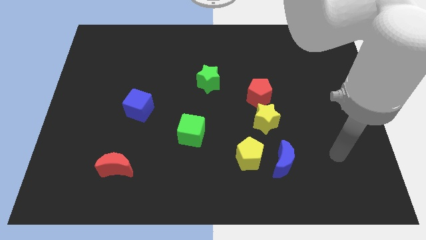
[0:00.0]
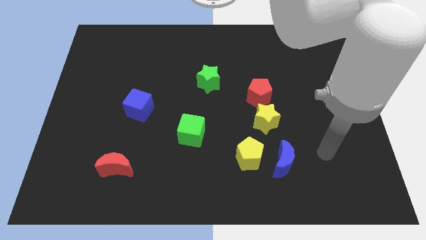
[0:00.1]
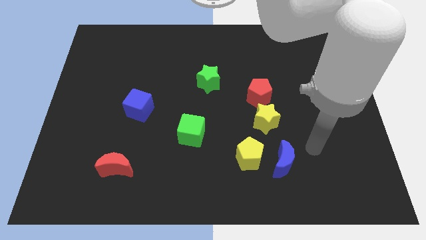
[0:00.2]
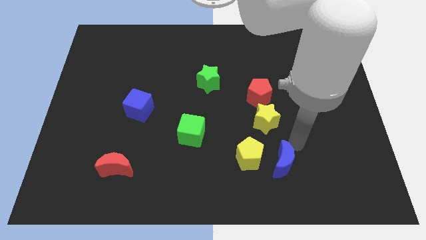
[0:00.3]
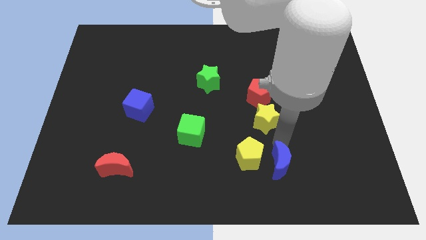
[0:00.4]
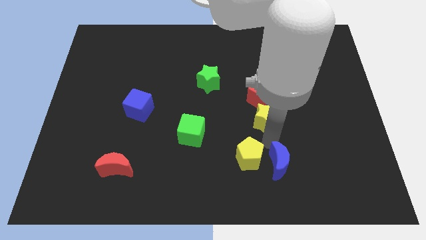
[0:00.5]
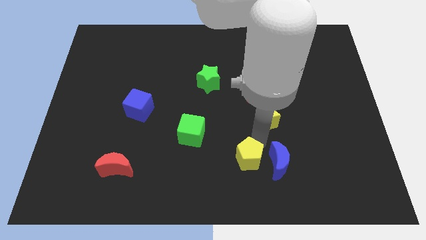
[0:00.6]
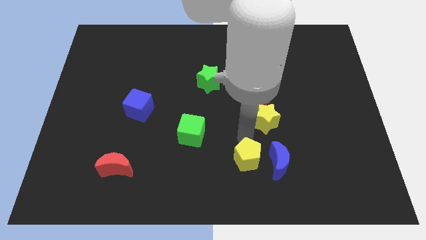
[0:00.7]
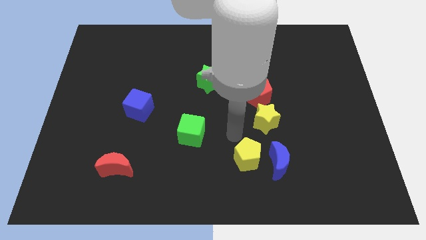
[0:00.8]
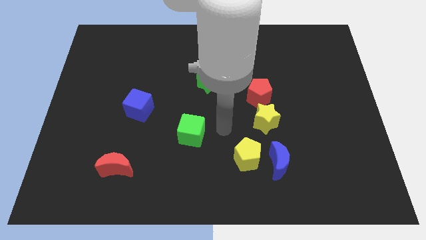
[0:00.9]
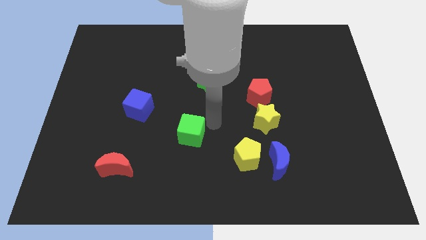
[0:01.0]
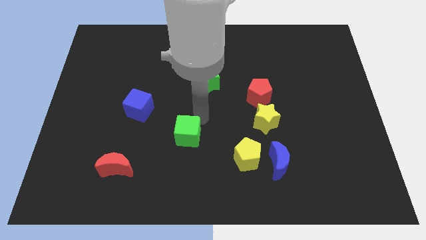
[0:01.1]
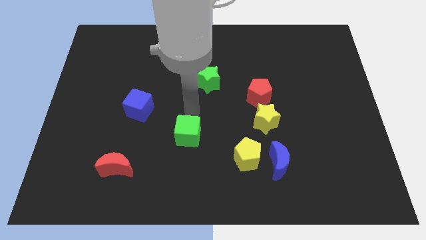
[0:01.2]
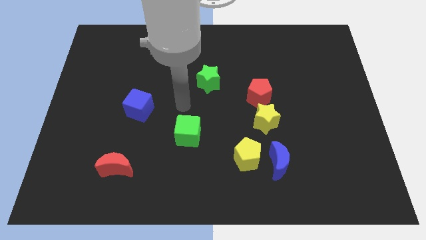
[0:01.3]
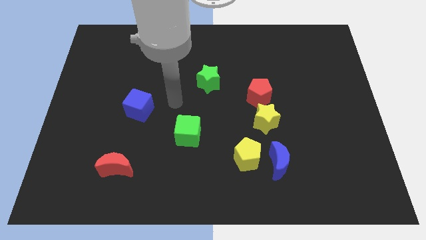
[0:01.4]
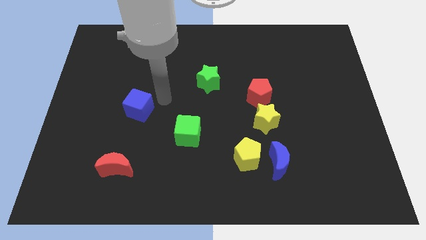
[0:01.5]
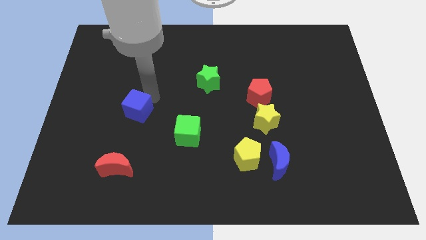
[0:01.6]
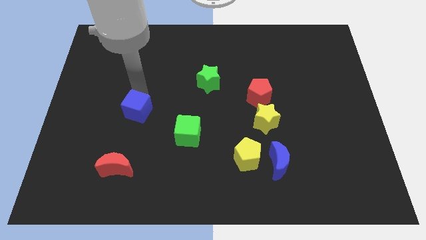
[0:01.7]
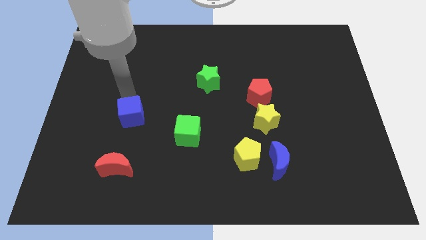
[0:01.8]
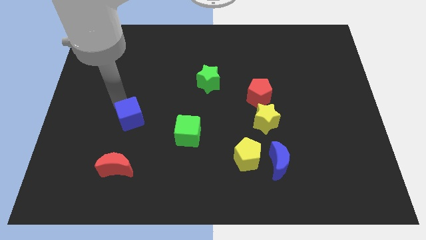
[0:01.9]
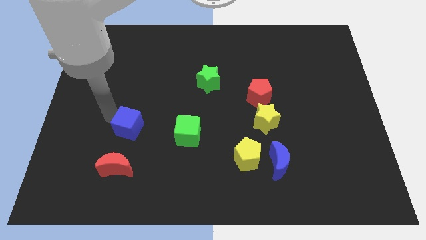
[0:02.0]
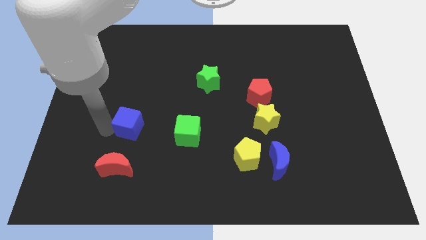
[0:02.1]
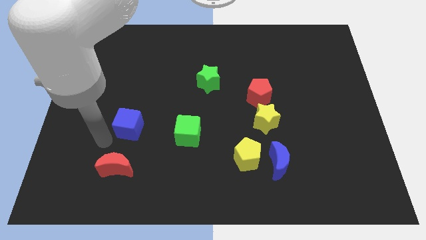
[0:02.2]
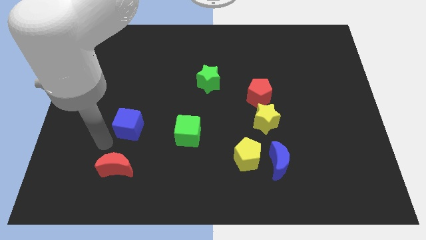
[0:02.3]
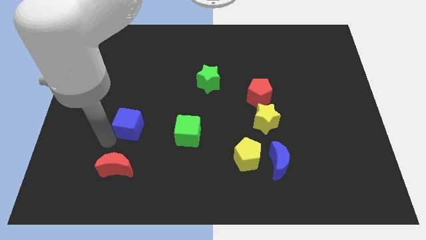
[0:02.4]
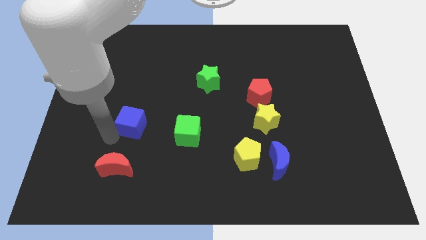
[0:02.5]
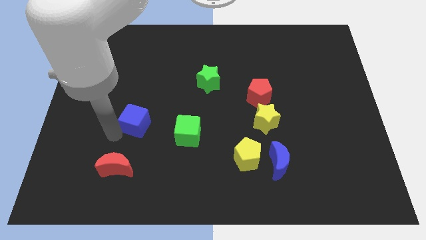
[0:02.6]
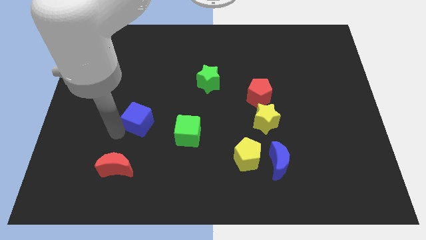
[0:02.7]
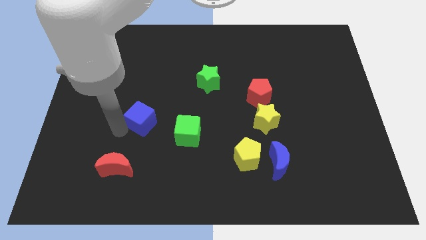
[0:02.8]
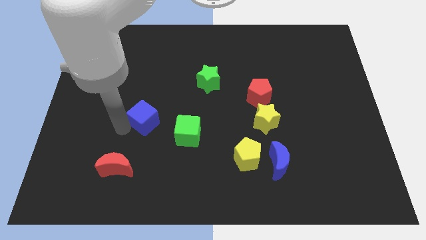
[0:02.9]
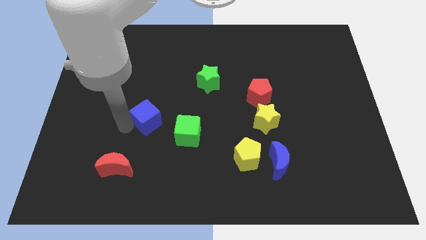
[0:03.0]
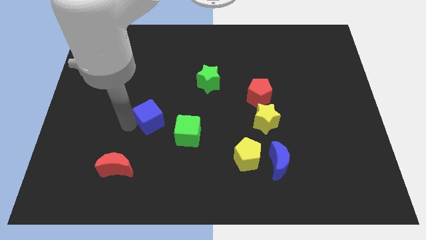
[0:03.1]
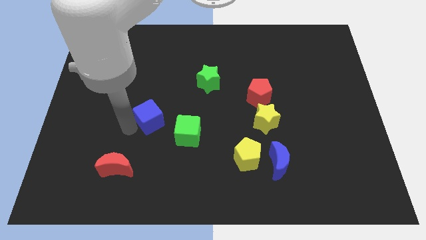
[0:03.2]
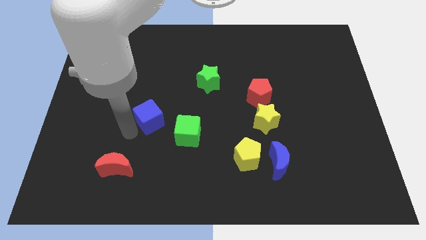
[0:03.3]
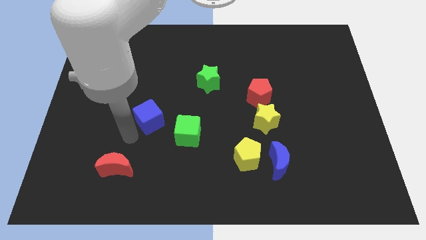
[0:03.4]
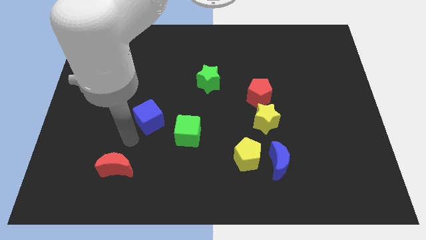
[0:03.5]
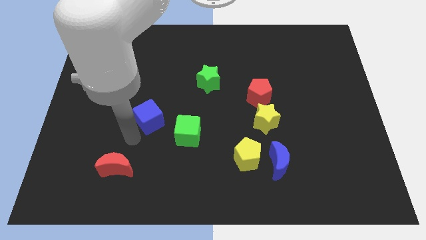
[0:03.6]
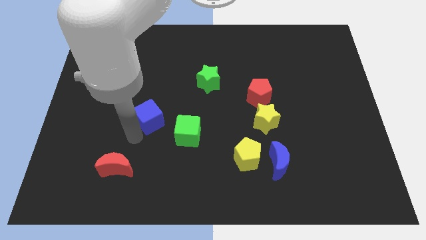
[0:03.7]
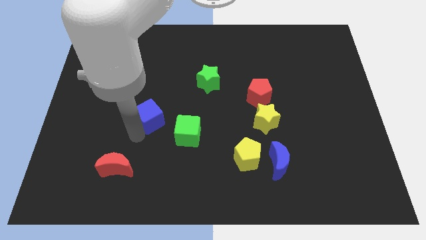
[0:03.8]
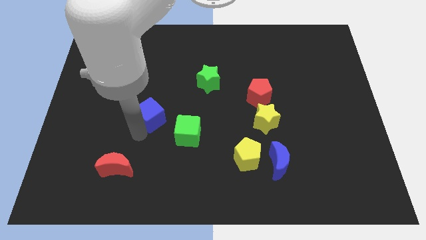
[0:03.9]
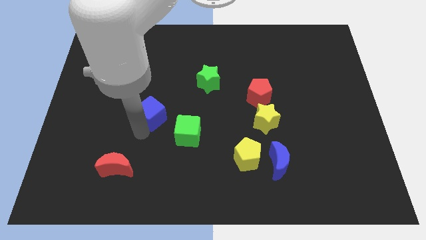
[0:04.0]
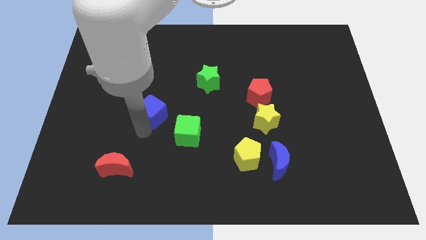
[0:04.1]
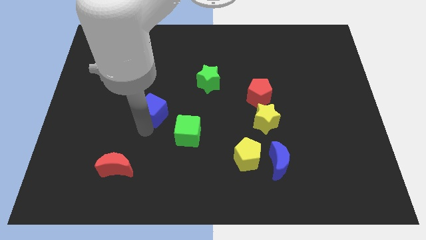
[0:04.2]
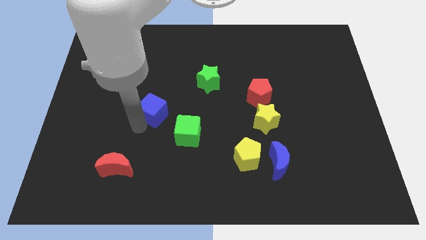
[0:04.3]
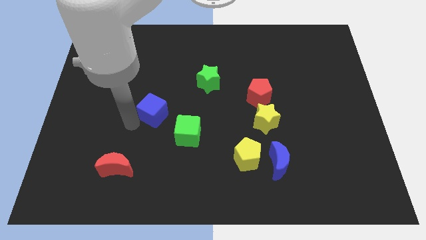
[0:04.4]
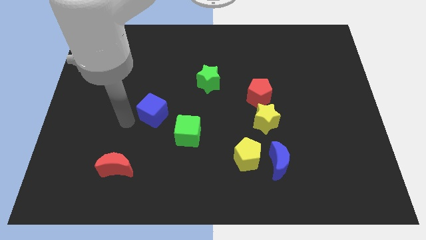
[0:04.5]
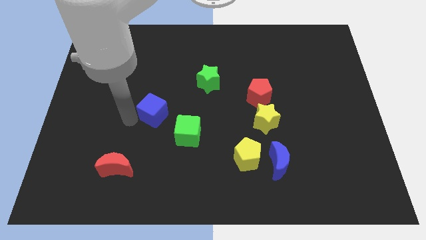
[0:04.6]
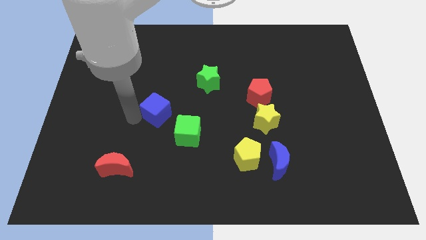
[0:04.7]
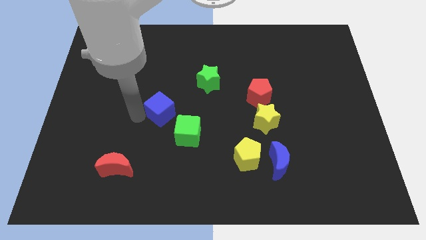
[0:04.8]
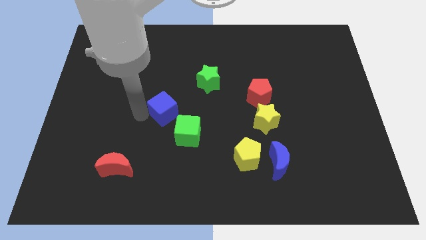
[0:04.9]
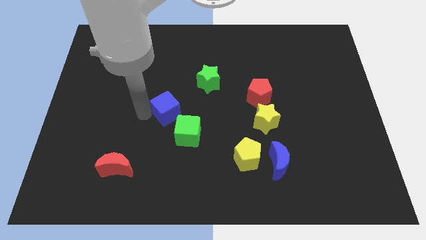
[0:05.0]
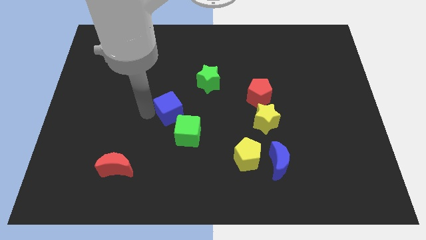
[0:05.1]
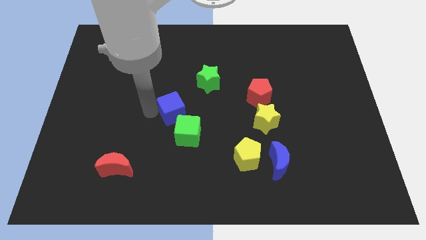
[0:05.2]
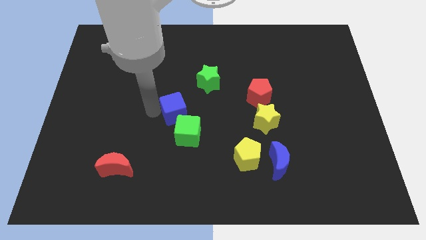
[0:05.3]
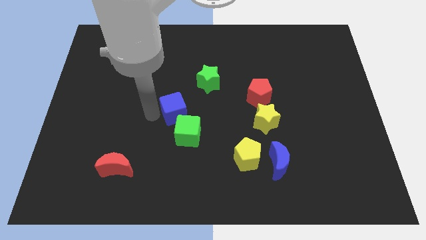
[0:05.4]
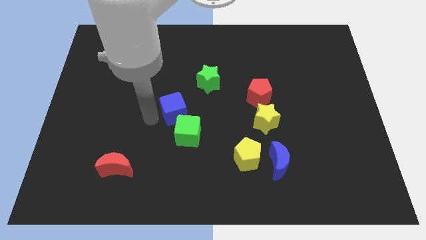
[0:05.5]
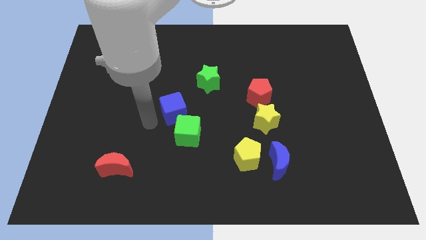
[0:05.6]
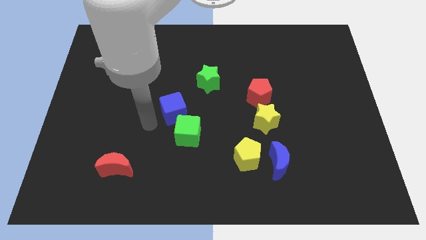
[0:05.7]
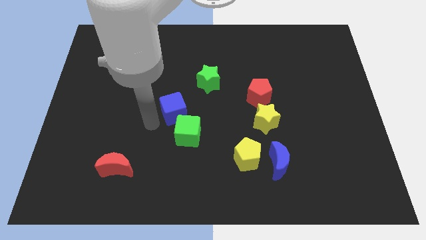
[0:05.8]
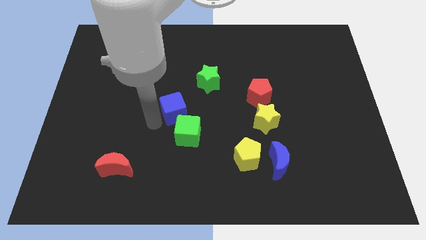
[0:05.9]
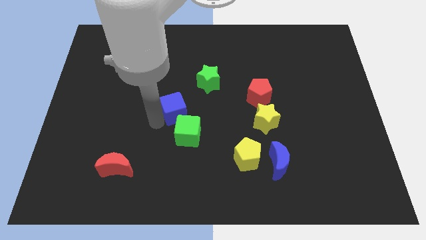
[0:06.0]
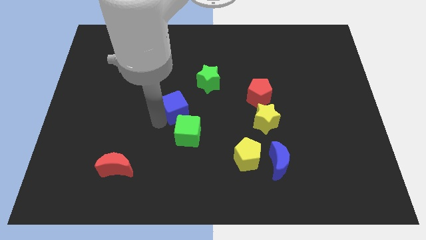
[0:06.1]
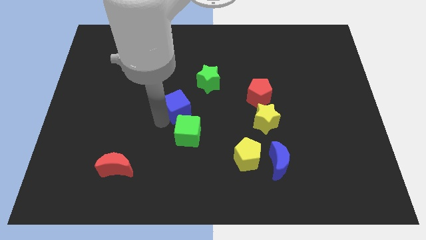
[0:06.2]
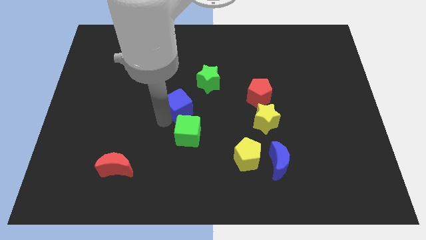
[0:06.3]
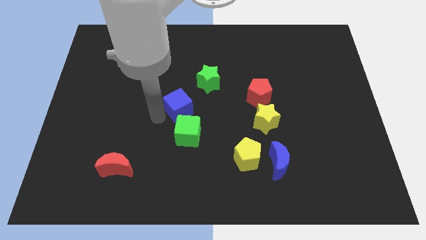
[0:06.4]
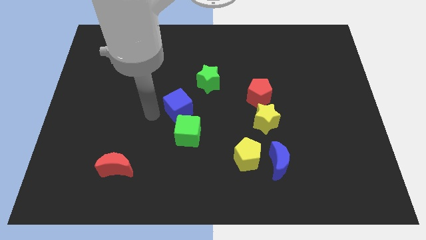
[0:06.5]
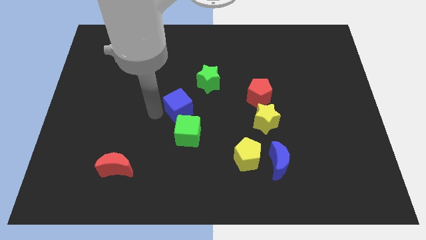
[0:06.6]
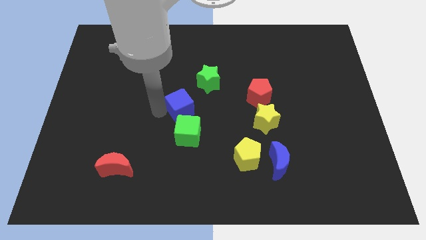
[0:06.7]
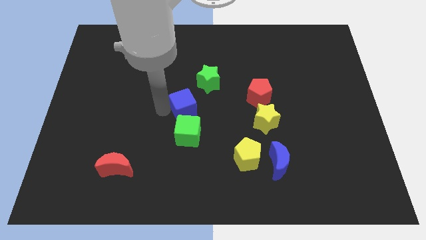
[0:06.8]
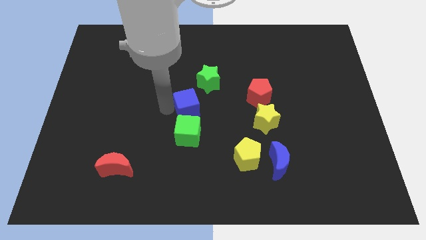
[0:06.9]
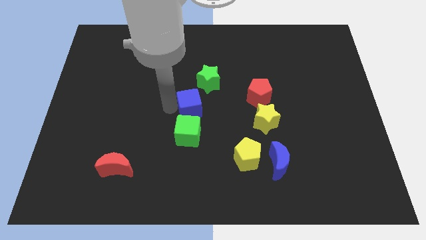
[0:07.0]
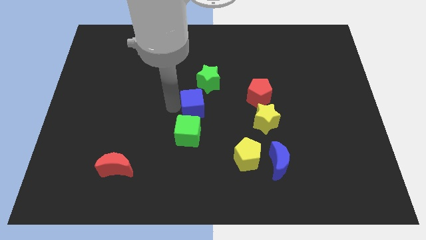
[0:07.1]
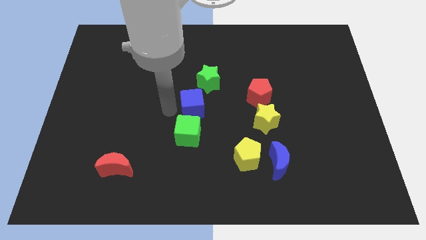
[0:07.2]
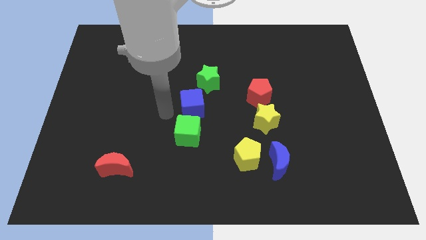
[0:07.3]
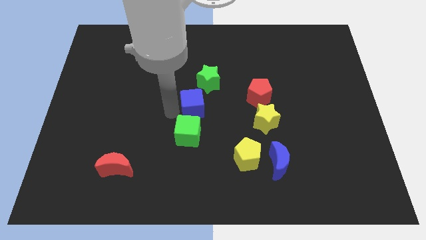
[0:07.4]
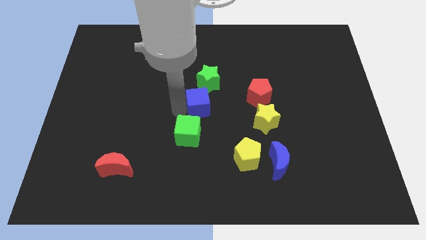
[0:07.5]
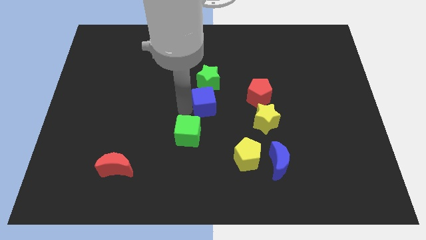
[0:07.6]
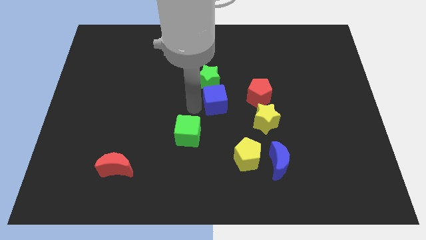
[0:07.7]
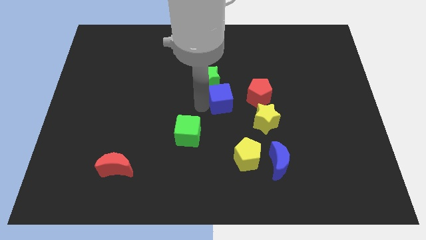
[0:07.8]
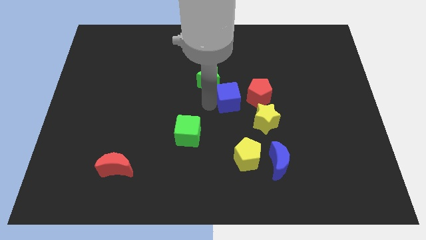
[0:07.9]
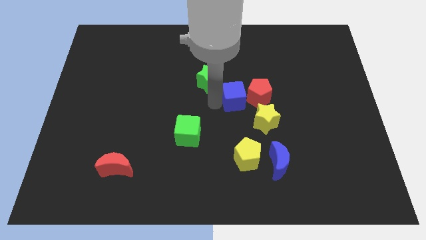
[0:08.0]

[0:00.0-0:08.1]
push the blue cube towards the red pentagon
